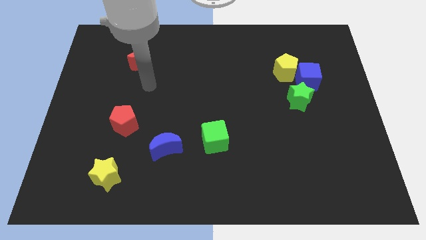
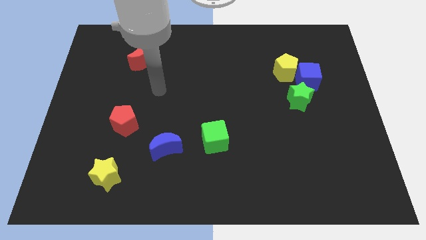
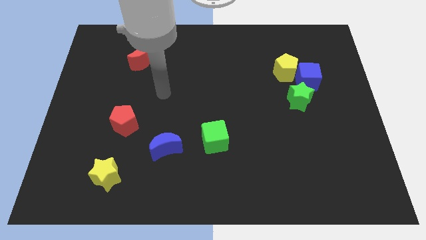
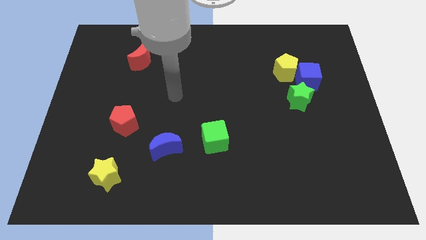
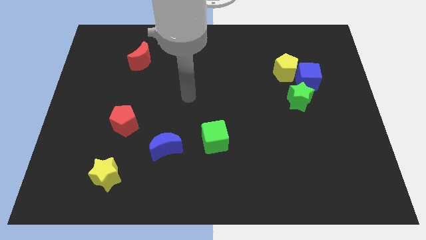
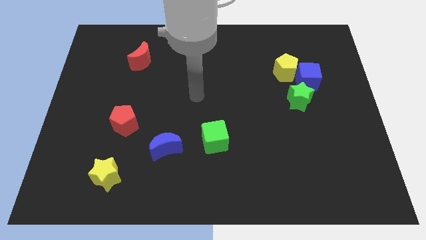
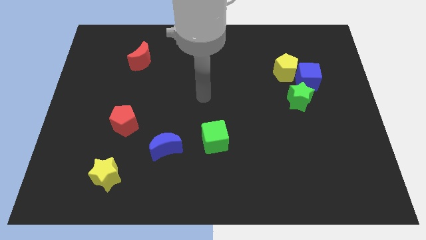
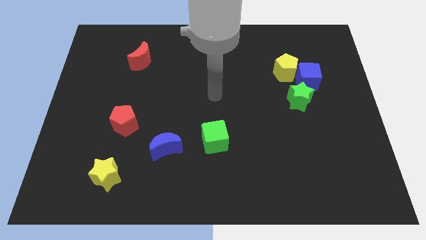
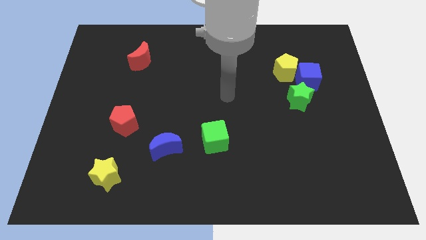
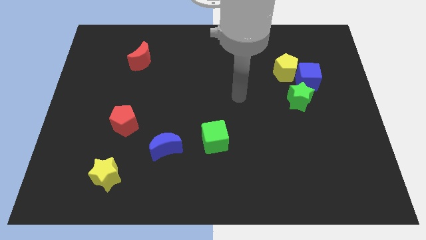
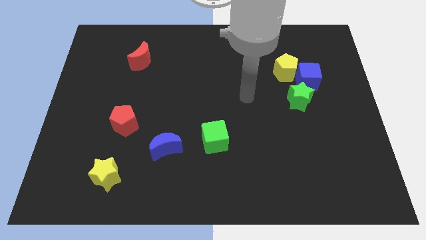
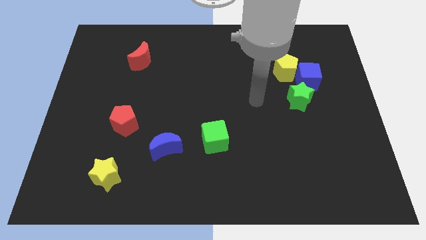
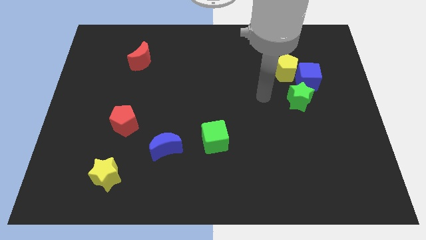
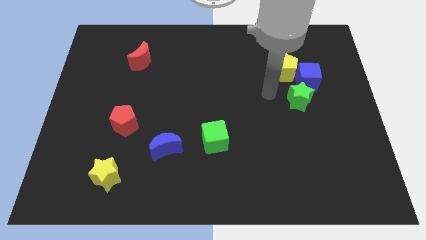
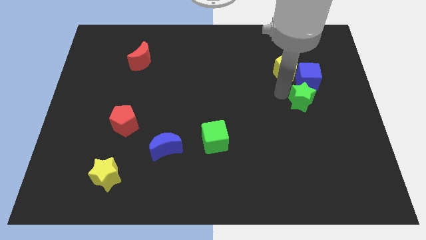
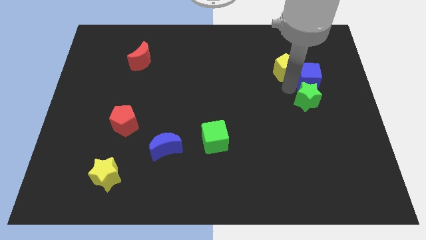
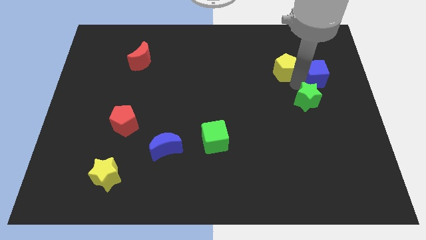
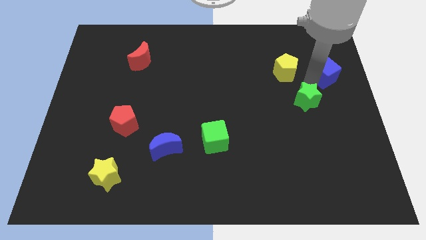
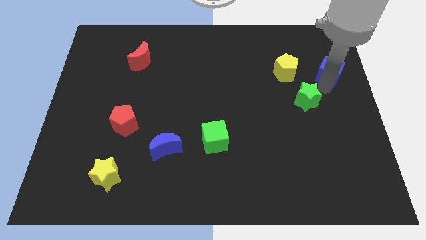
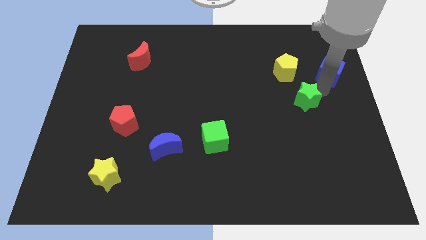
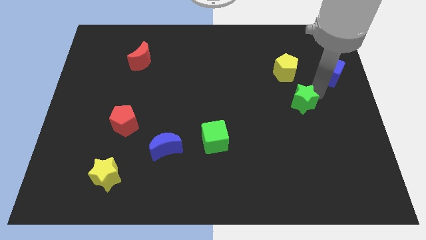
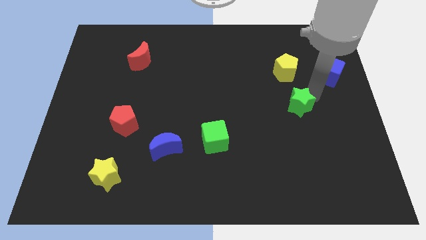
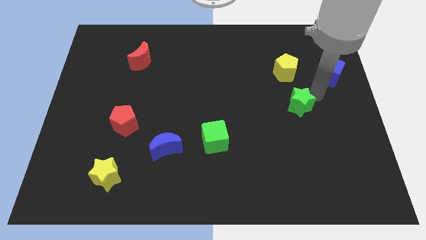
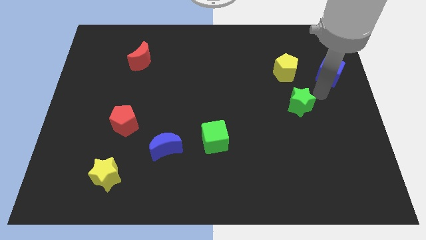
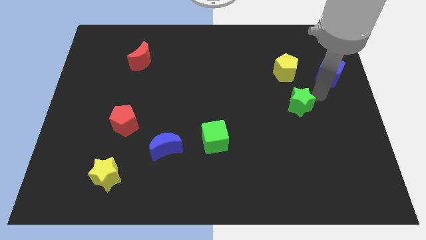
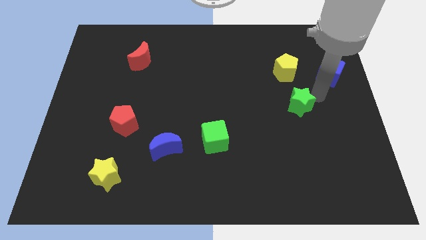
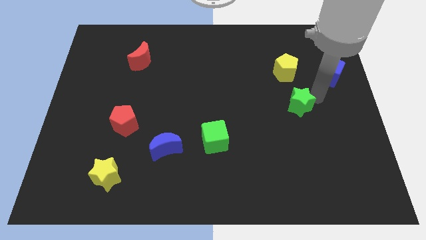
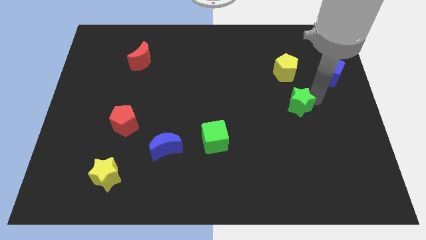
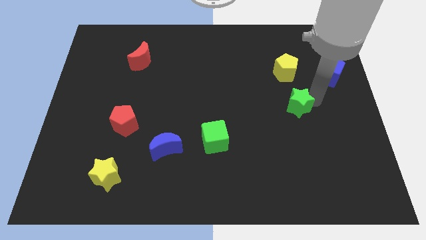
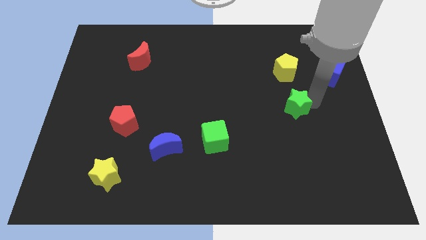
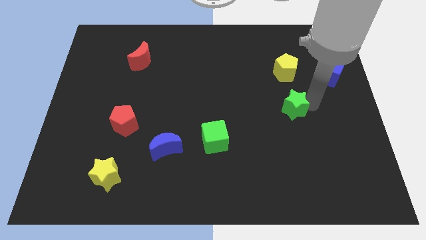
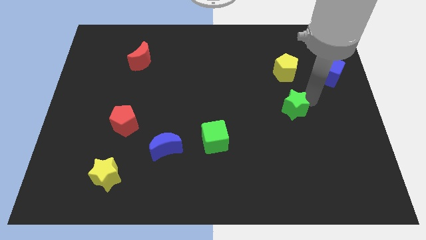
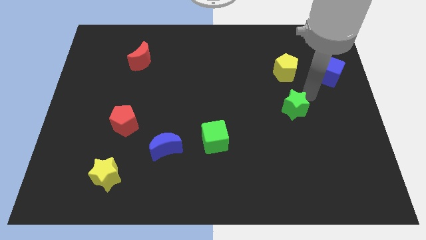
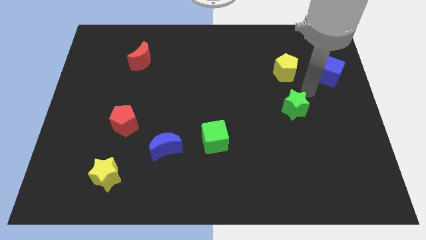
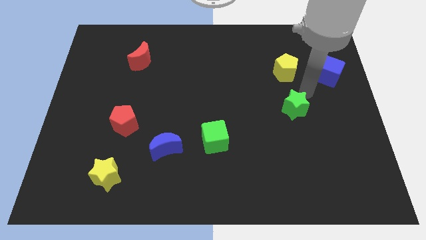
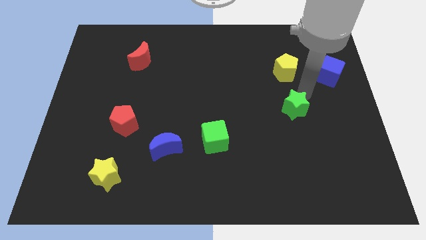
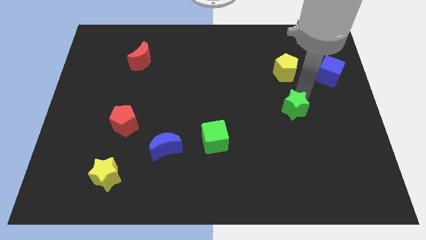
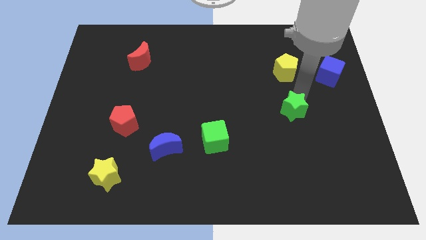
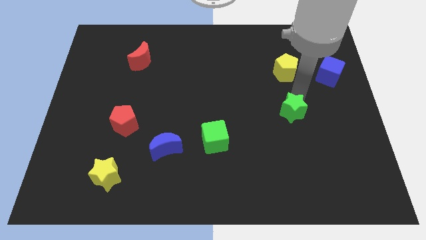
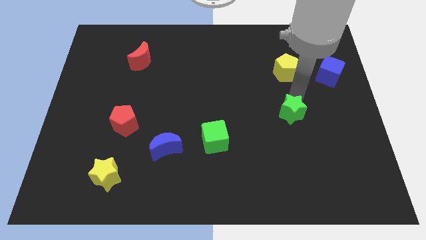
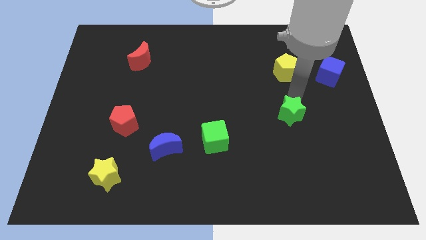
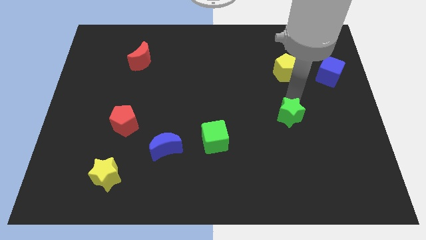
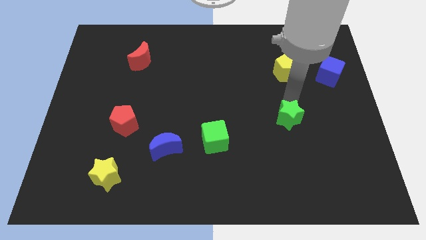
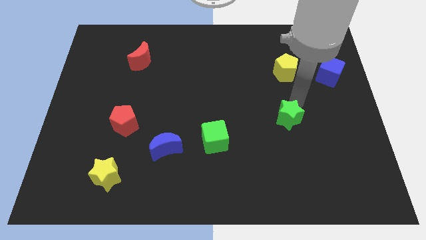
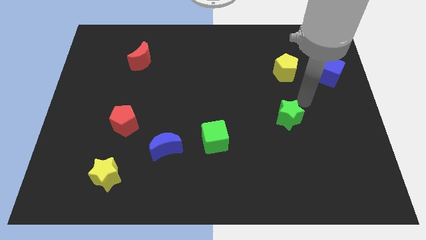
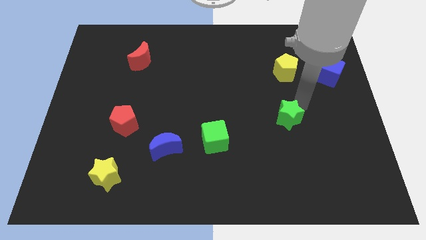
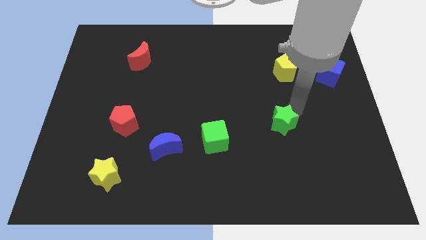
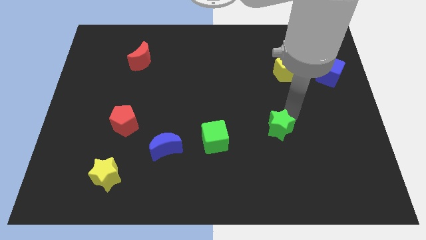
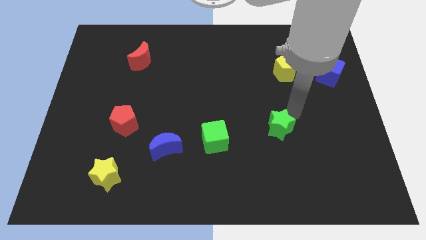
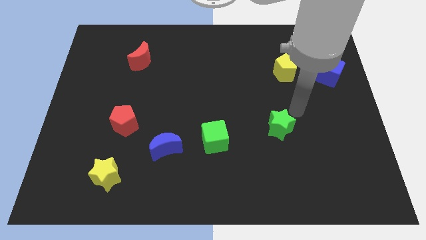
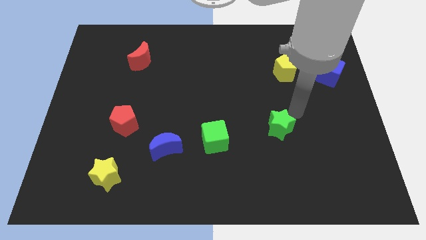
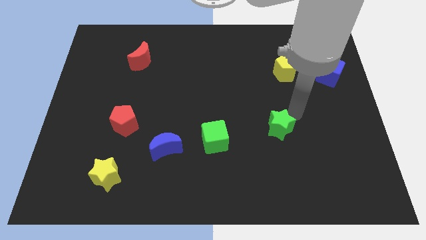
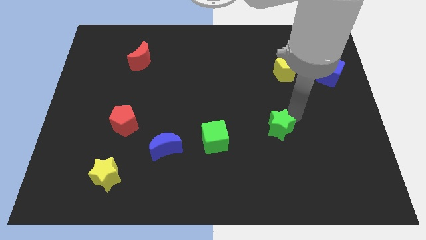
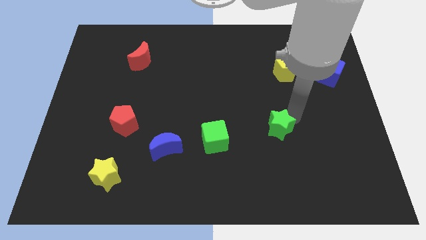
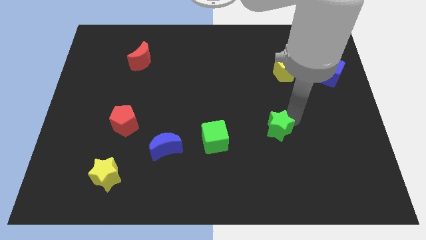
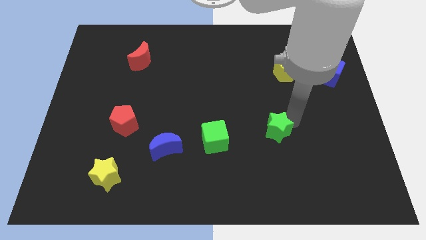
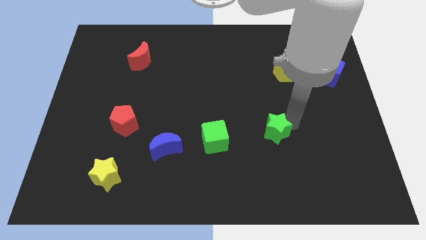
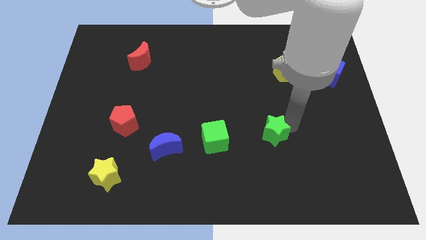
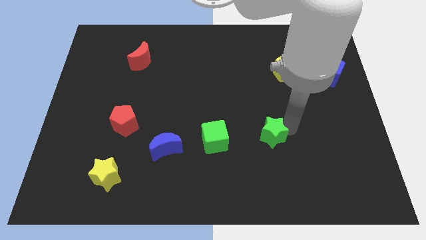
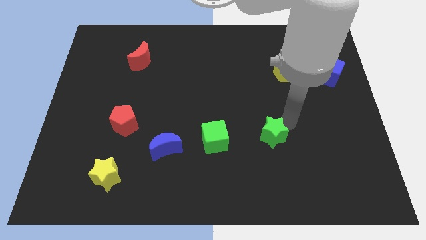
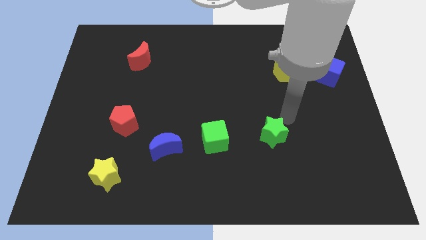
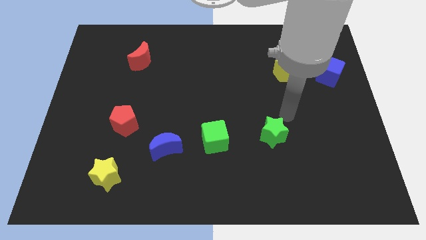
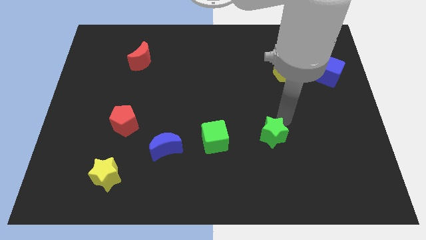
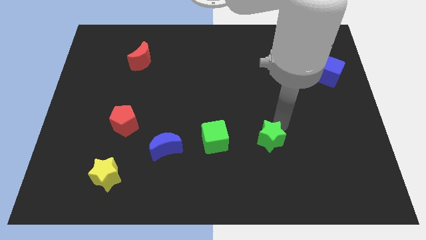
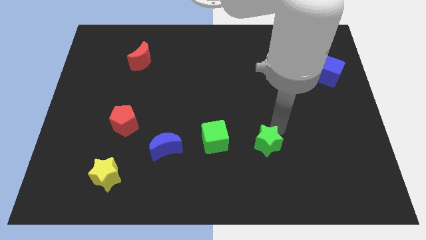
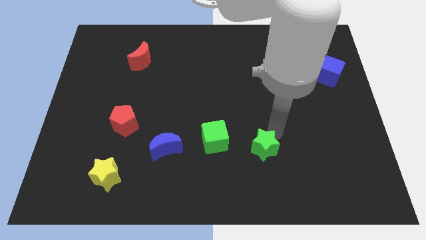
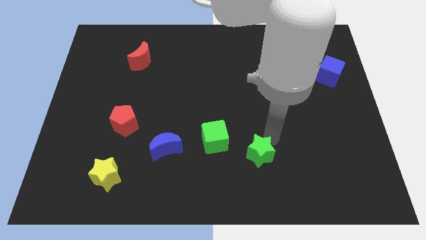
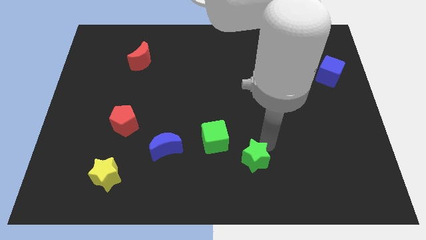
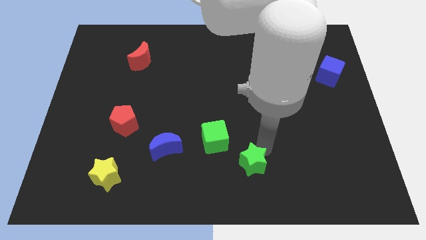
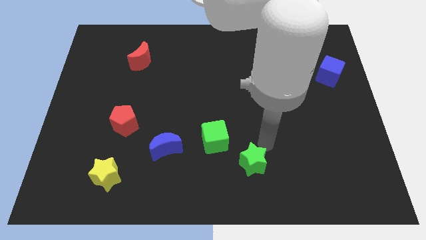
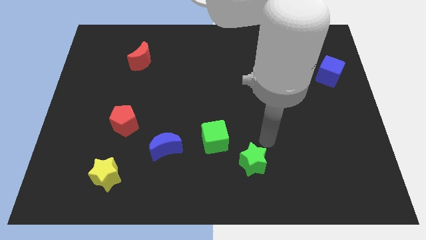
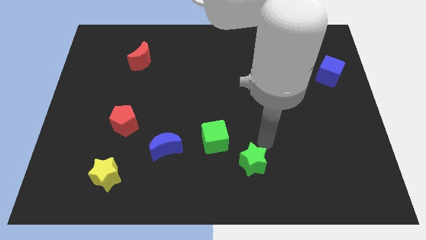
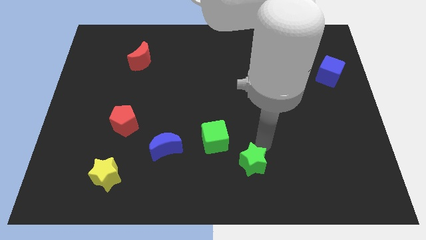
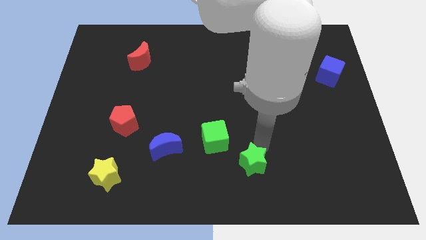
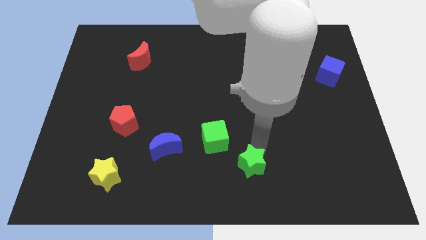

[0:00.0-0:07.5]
put the green star to the bottom
